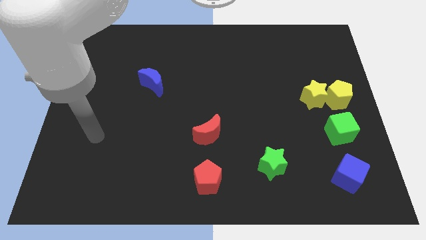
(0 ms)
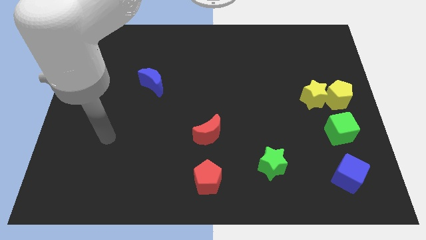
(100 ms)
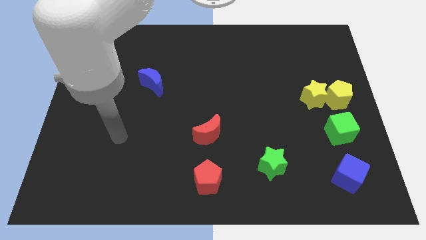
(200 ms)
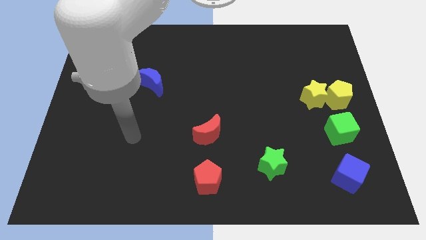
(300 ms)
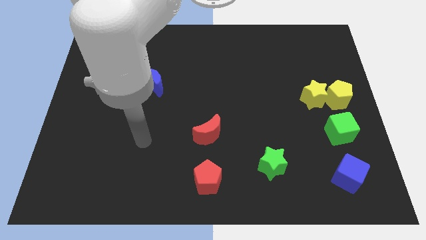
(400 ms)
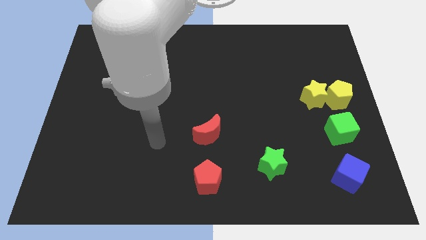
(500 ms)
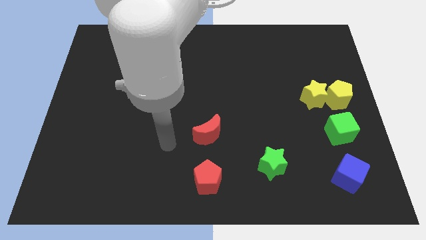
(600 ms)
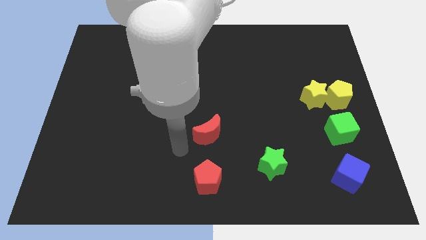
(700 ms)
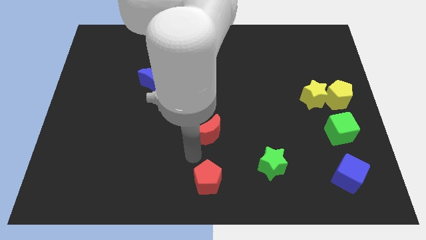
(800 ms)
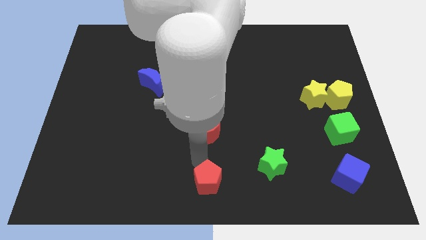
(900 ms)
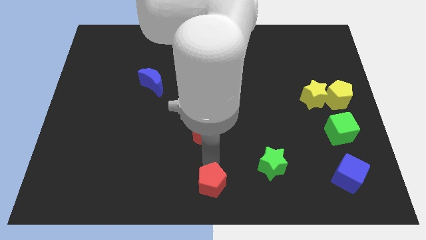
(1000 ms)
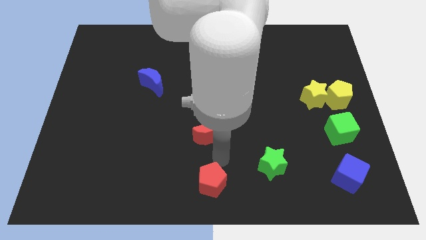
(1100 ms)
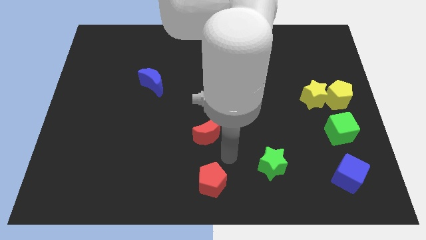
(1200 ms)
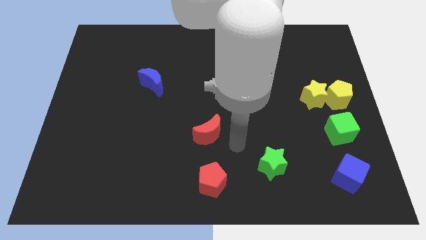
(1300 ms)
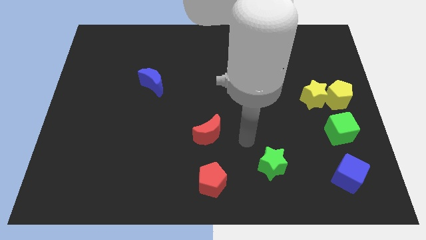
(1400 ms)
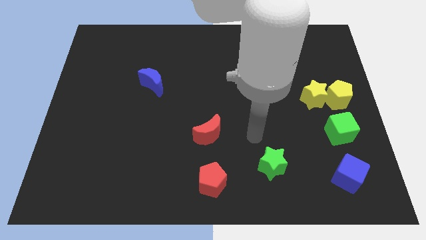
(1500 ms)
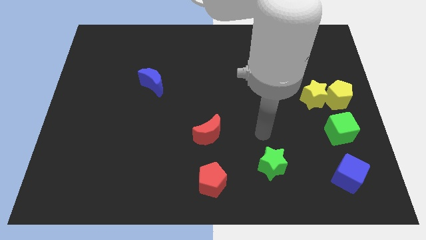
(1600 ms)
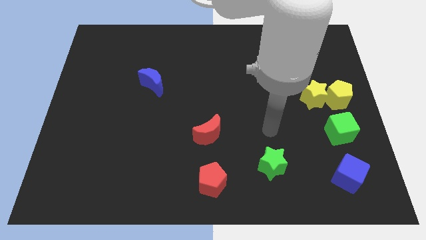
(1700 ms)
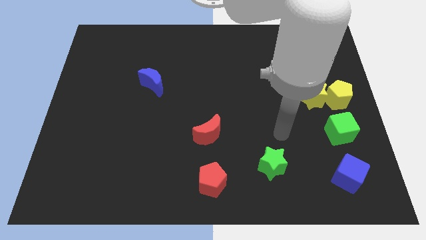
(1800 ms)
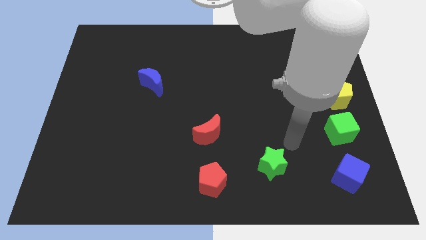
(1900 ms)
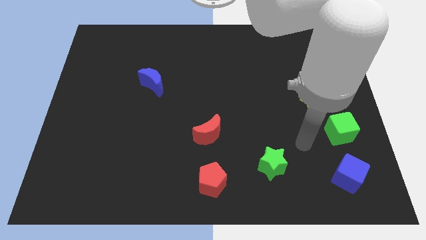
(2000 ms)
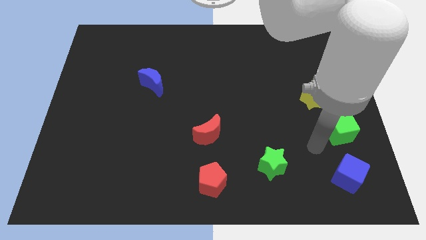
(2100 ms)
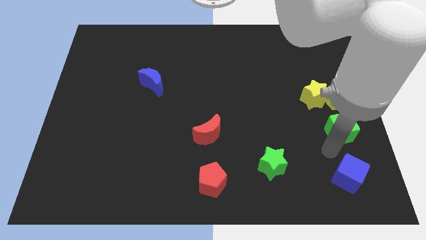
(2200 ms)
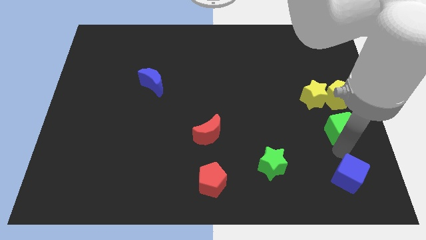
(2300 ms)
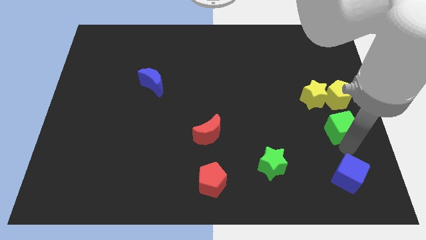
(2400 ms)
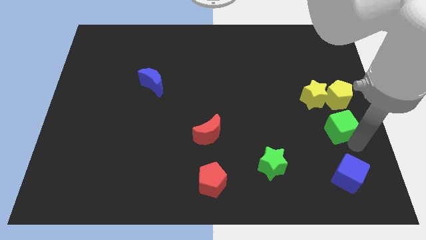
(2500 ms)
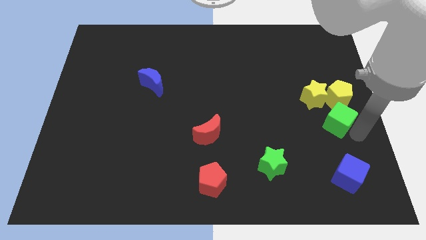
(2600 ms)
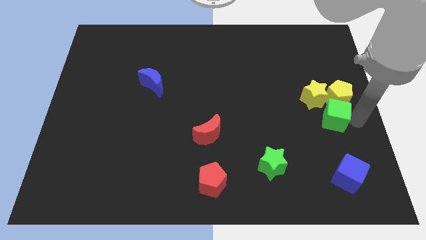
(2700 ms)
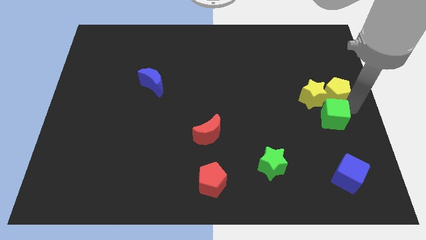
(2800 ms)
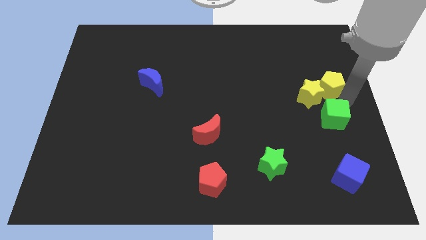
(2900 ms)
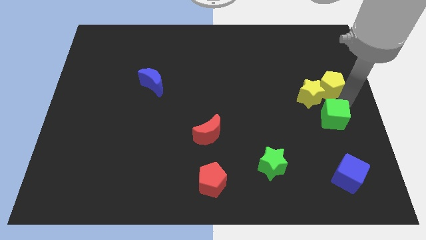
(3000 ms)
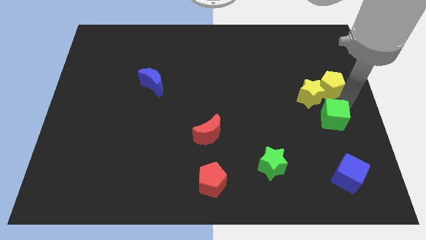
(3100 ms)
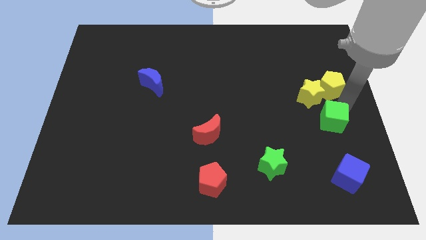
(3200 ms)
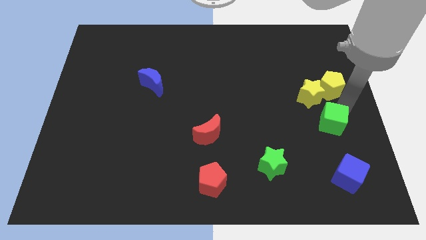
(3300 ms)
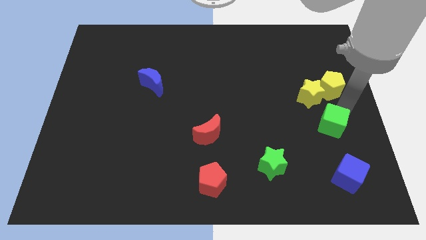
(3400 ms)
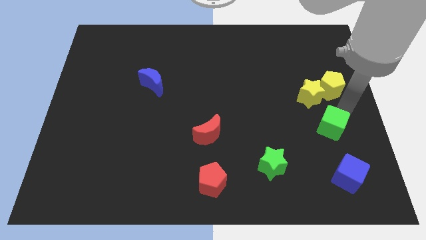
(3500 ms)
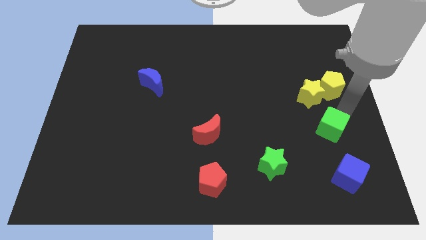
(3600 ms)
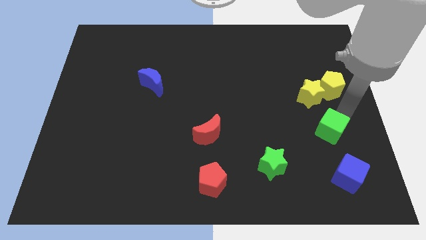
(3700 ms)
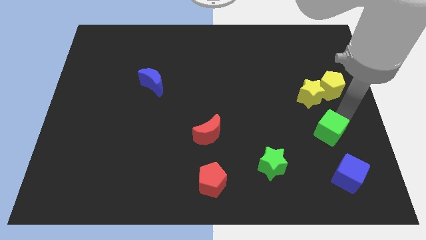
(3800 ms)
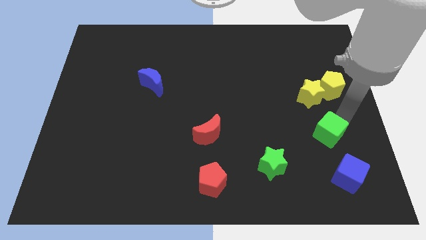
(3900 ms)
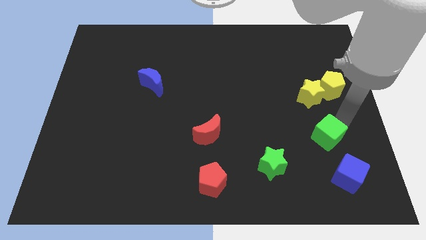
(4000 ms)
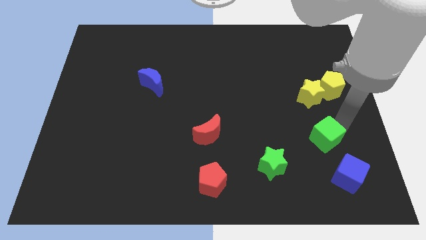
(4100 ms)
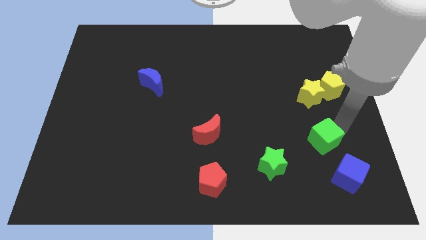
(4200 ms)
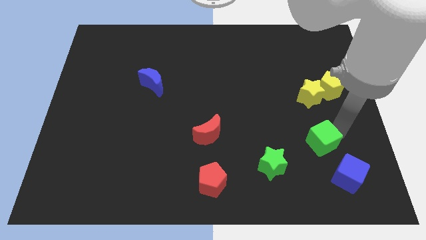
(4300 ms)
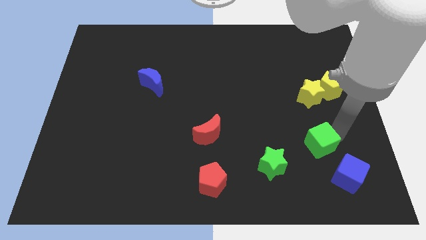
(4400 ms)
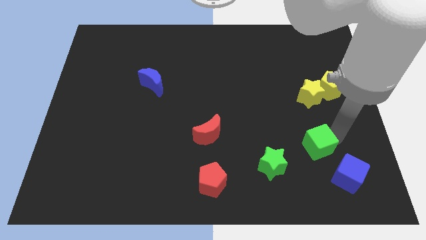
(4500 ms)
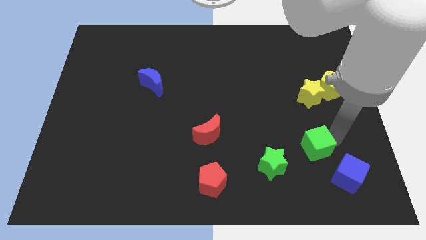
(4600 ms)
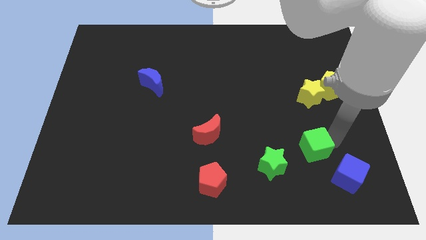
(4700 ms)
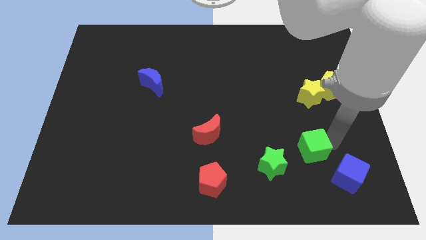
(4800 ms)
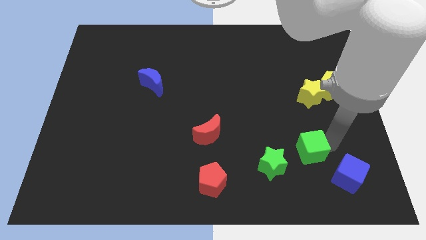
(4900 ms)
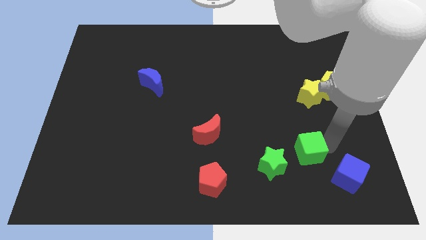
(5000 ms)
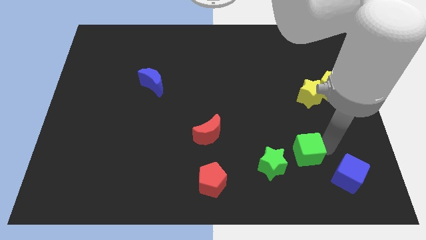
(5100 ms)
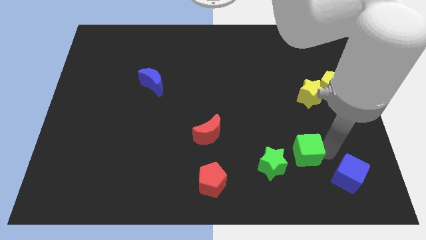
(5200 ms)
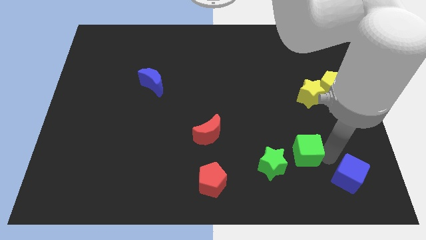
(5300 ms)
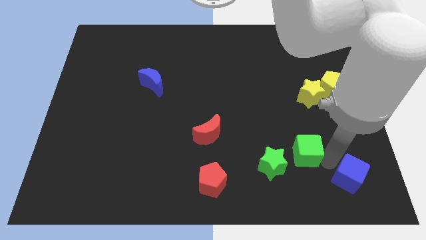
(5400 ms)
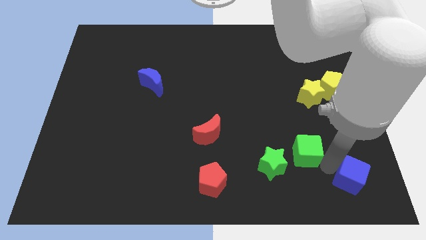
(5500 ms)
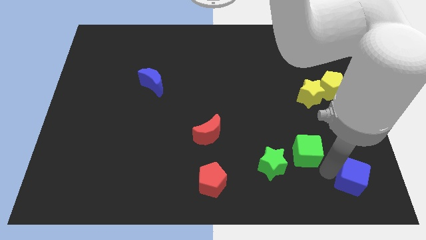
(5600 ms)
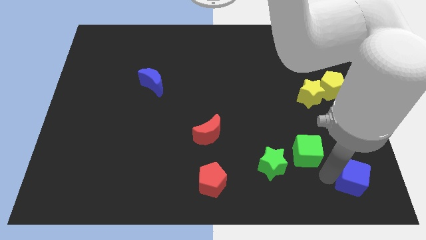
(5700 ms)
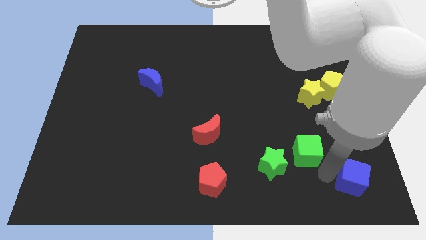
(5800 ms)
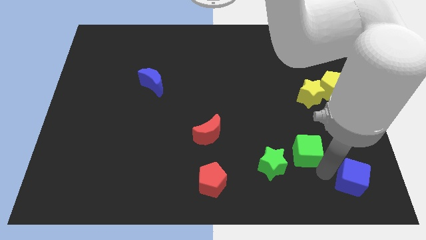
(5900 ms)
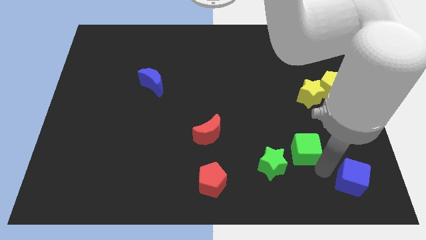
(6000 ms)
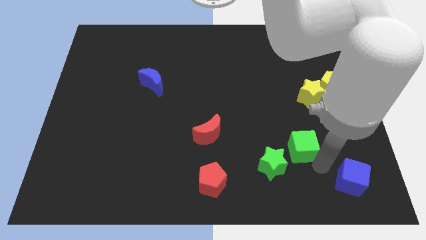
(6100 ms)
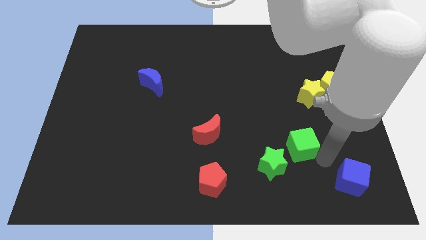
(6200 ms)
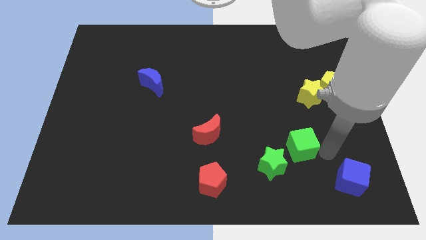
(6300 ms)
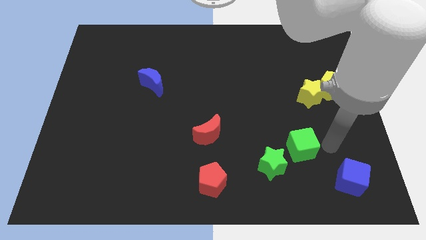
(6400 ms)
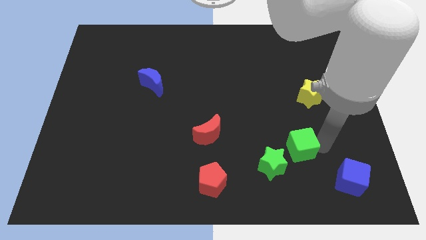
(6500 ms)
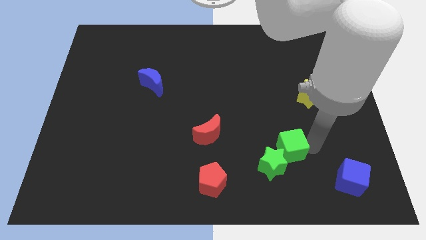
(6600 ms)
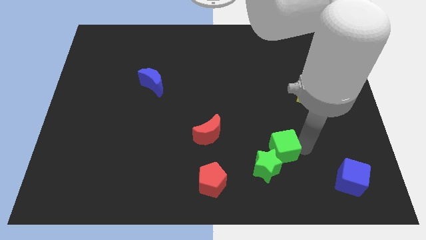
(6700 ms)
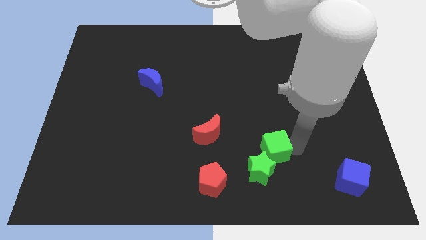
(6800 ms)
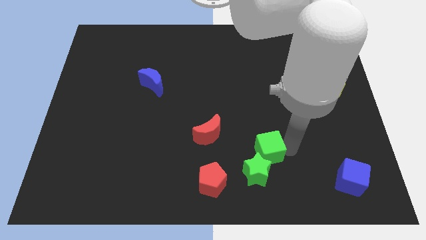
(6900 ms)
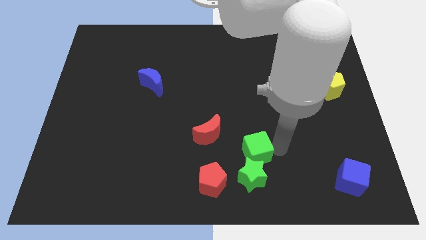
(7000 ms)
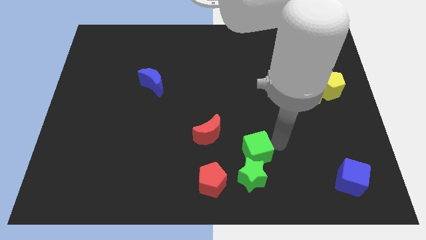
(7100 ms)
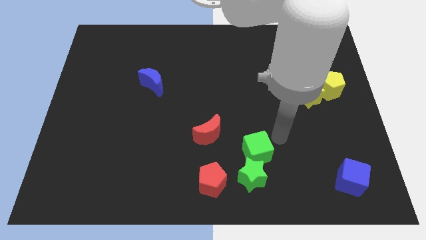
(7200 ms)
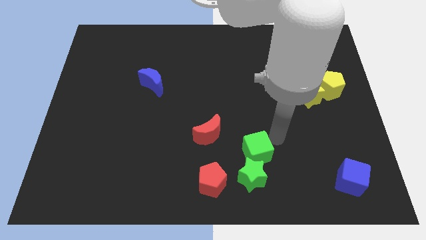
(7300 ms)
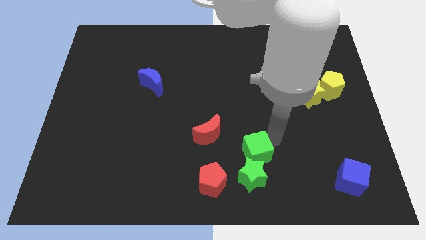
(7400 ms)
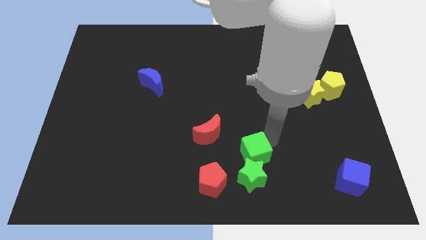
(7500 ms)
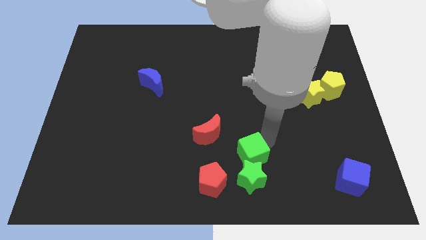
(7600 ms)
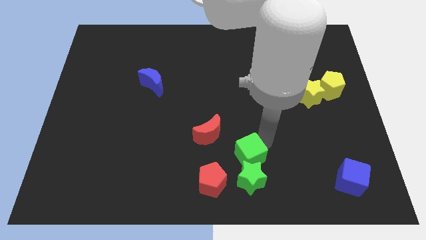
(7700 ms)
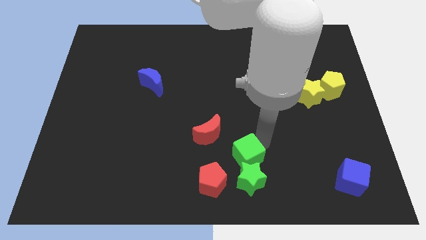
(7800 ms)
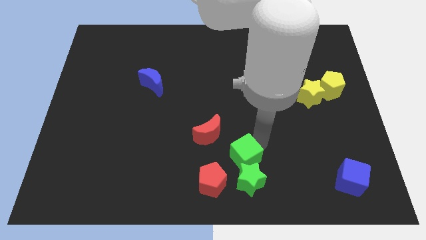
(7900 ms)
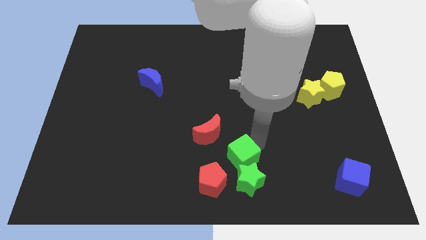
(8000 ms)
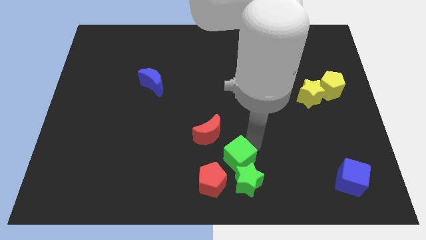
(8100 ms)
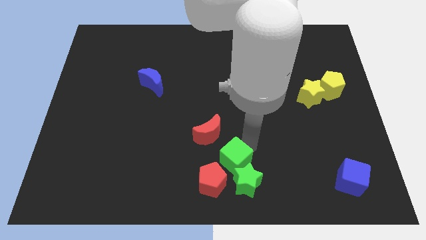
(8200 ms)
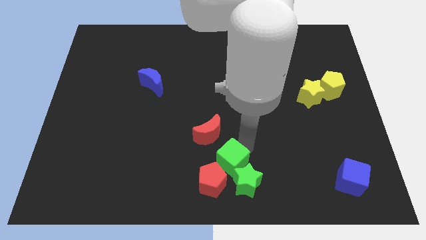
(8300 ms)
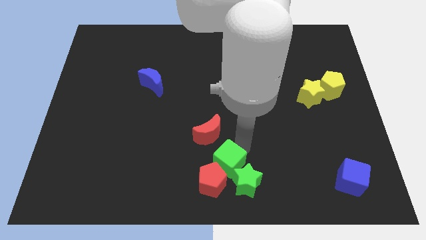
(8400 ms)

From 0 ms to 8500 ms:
move the green cube close to the red pentagon
